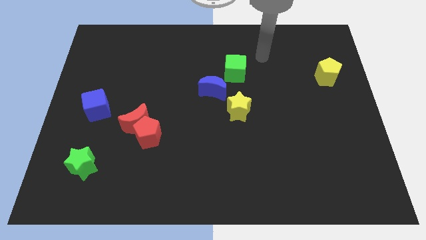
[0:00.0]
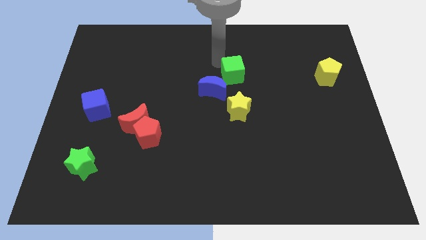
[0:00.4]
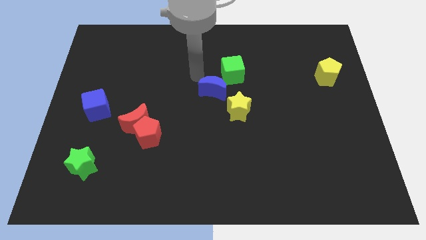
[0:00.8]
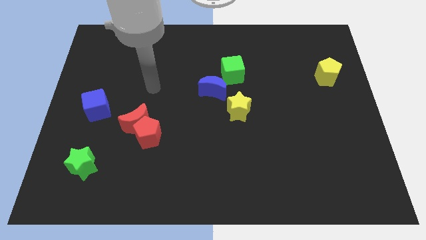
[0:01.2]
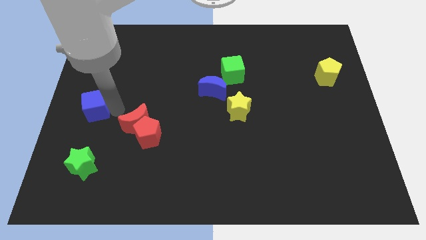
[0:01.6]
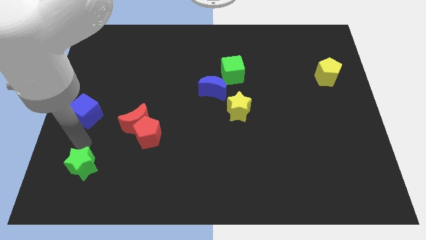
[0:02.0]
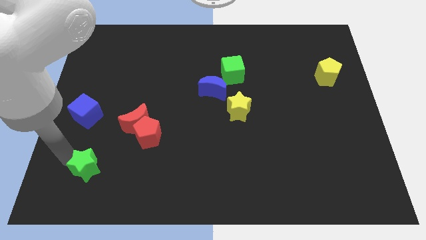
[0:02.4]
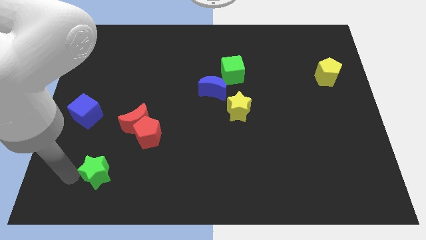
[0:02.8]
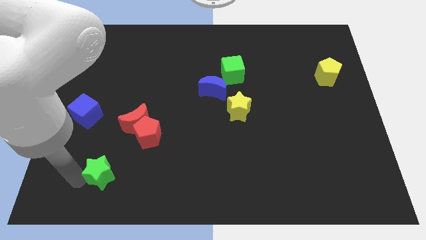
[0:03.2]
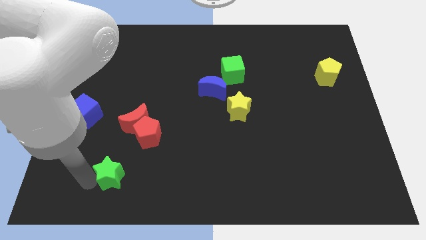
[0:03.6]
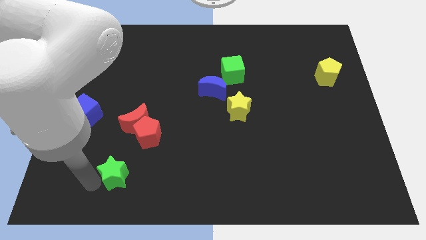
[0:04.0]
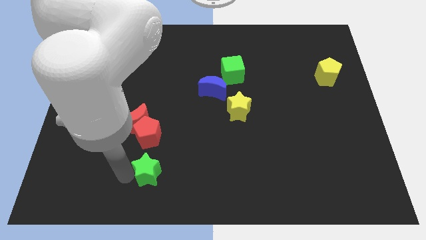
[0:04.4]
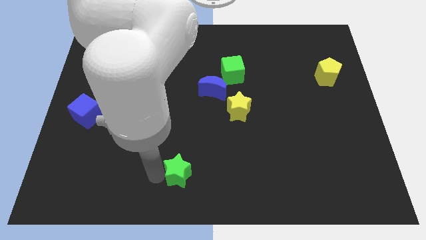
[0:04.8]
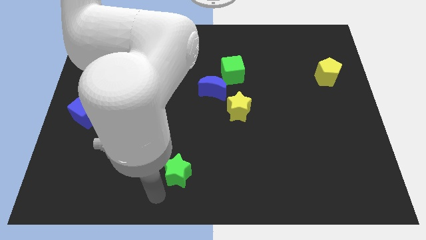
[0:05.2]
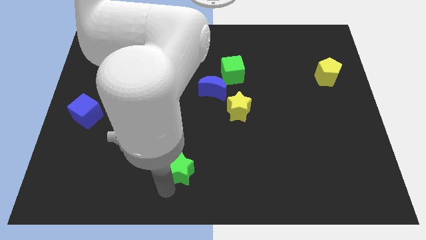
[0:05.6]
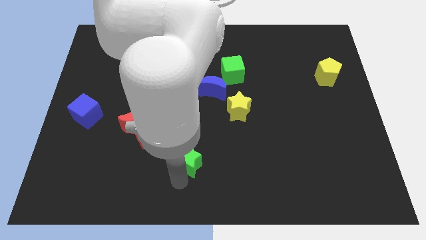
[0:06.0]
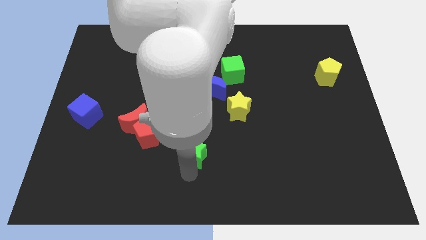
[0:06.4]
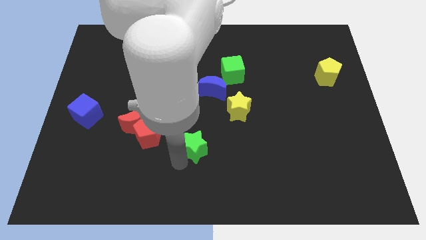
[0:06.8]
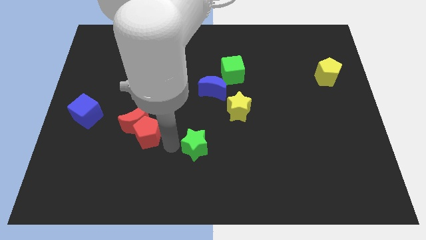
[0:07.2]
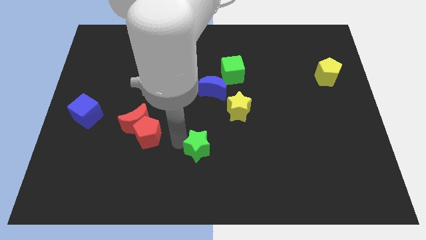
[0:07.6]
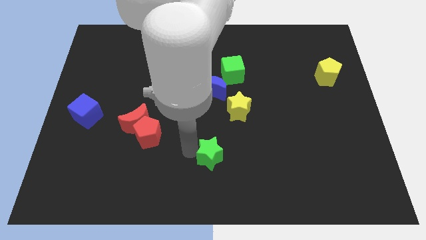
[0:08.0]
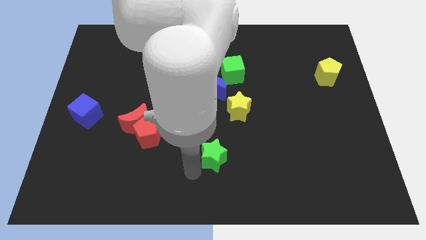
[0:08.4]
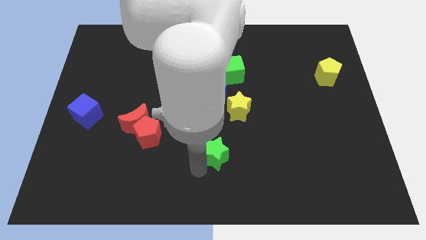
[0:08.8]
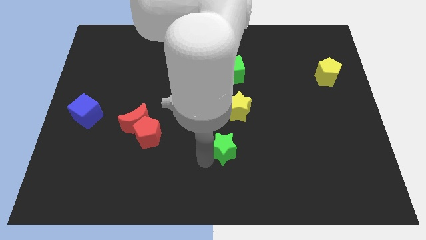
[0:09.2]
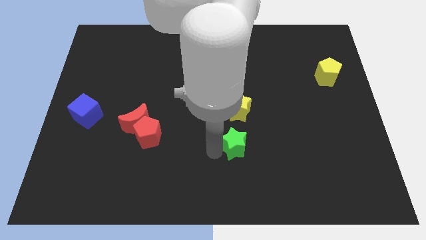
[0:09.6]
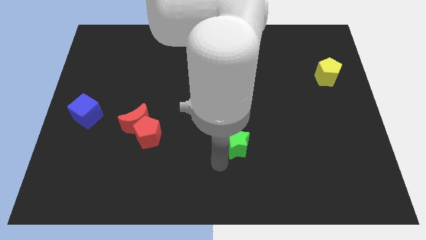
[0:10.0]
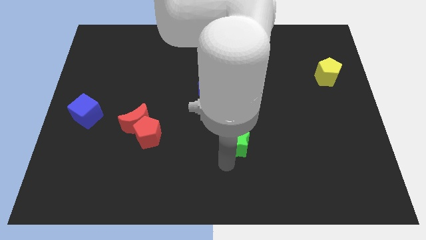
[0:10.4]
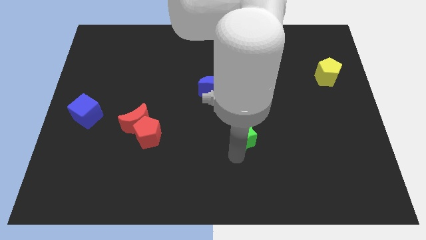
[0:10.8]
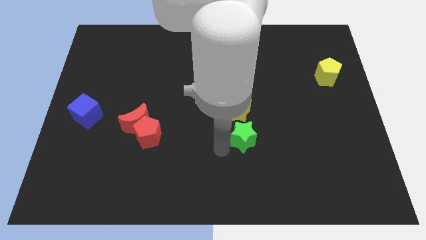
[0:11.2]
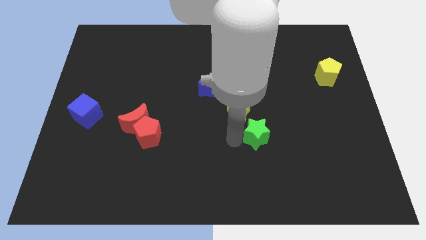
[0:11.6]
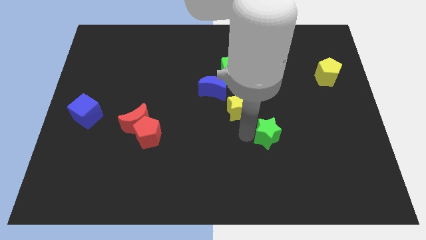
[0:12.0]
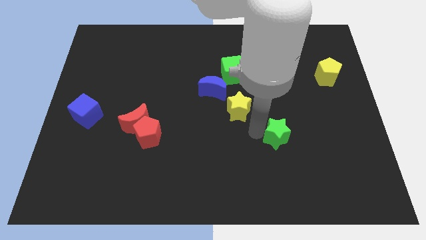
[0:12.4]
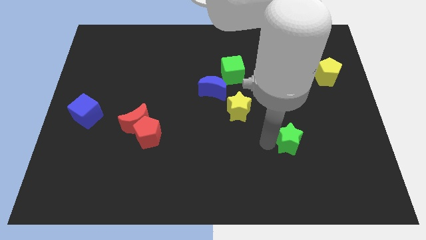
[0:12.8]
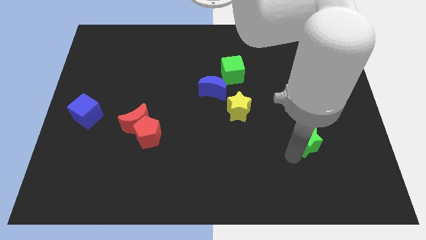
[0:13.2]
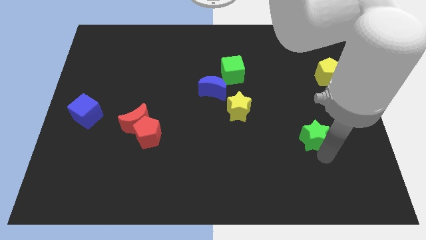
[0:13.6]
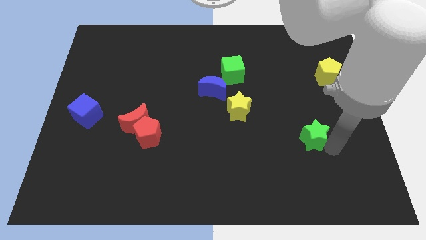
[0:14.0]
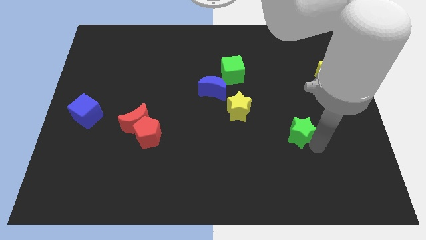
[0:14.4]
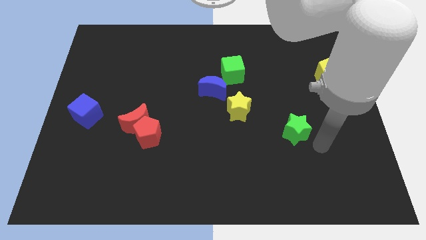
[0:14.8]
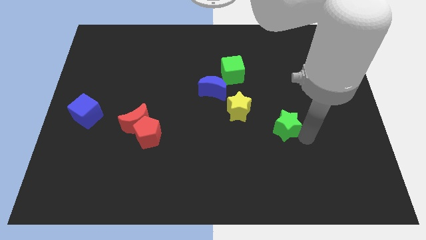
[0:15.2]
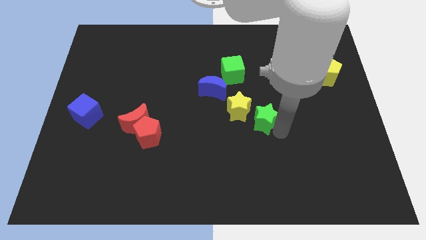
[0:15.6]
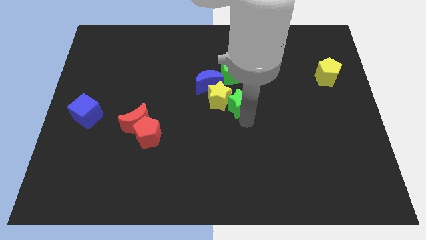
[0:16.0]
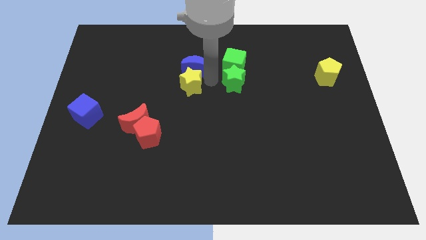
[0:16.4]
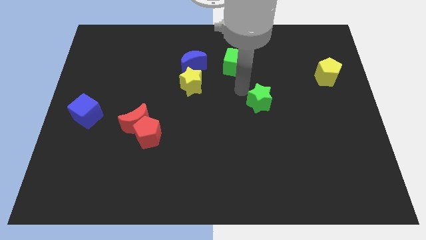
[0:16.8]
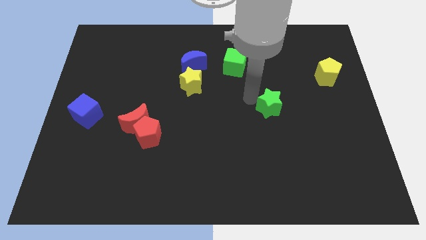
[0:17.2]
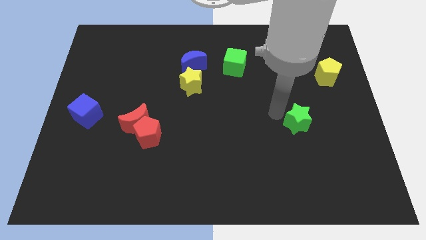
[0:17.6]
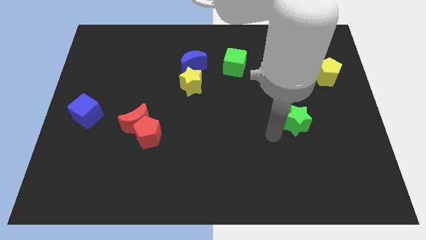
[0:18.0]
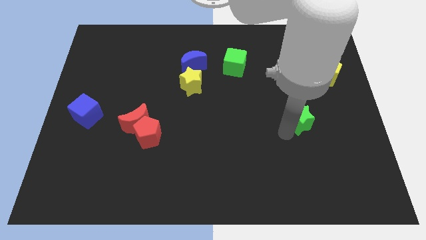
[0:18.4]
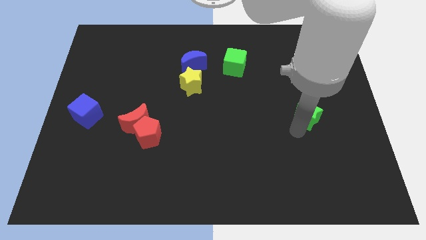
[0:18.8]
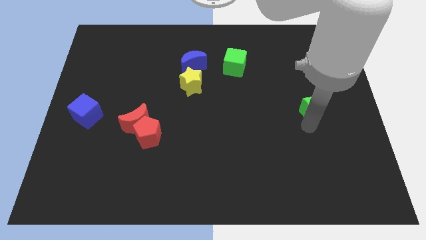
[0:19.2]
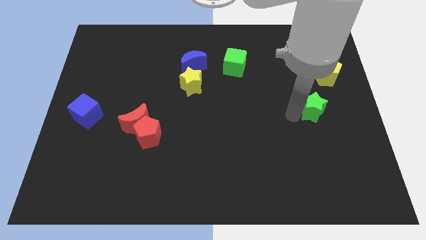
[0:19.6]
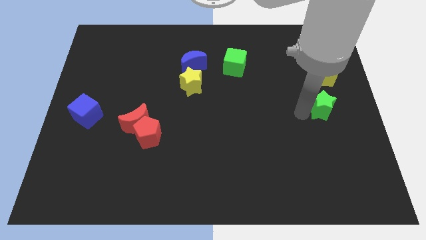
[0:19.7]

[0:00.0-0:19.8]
move the green star to the center right

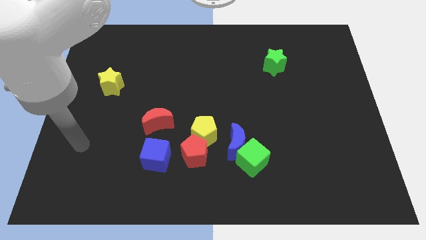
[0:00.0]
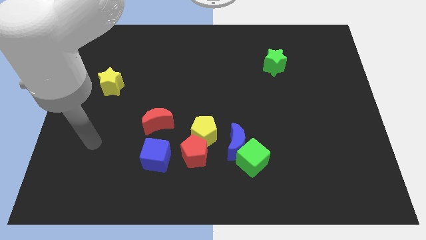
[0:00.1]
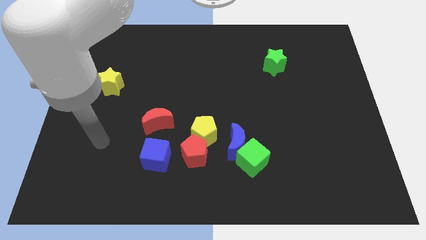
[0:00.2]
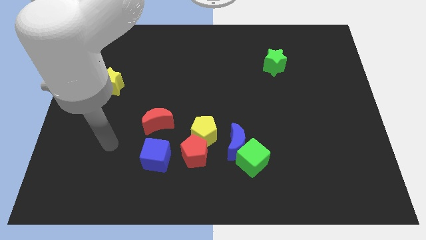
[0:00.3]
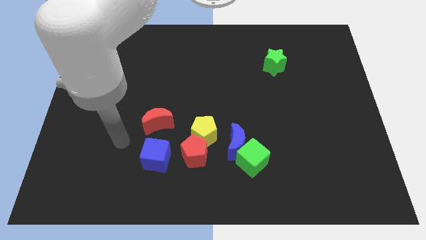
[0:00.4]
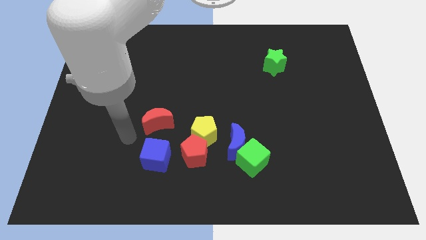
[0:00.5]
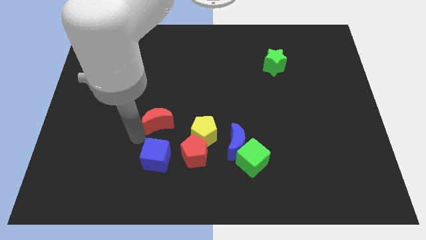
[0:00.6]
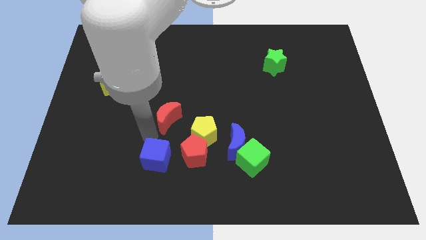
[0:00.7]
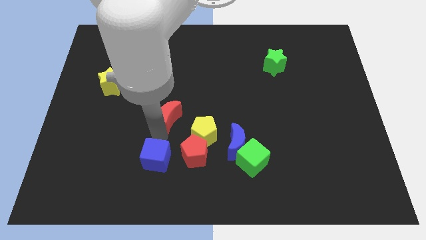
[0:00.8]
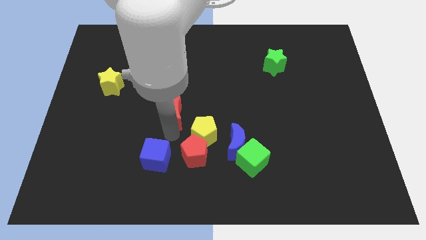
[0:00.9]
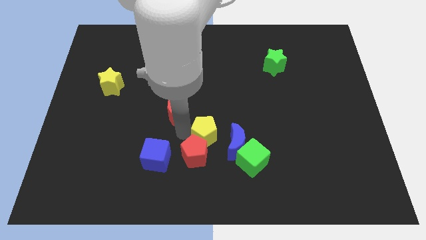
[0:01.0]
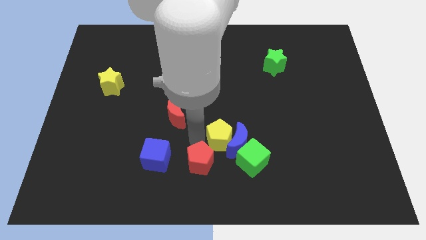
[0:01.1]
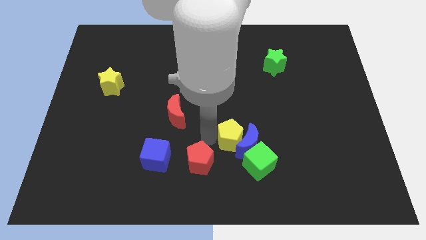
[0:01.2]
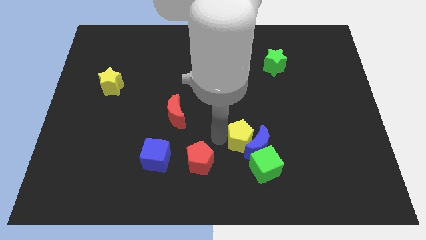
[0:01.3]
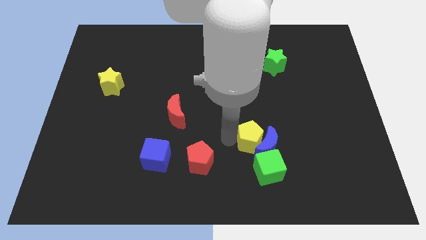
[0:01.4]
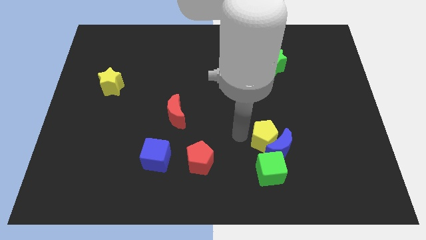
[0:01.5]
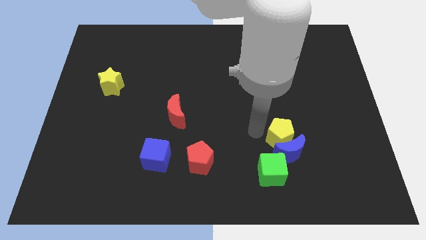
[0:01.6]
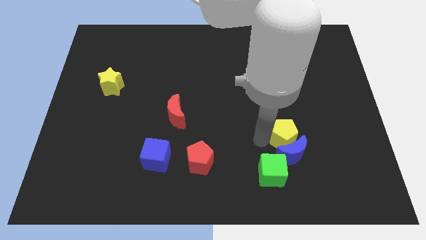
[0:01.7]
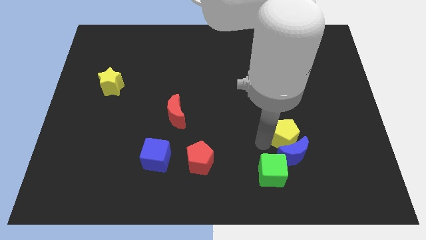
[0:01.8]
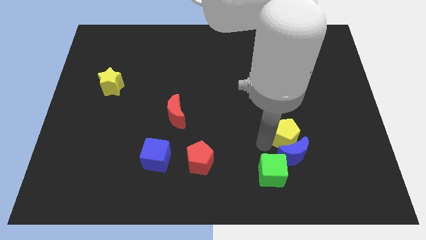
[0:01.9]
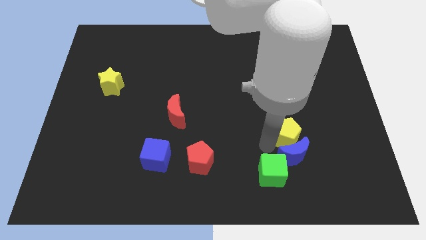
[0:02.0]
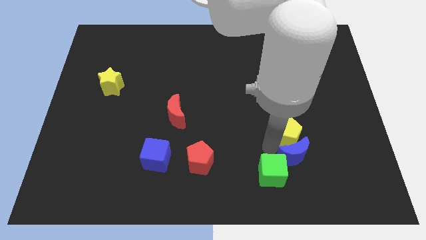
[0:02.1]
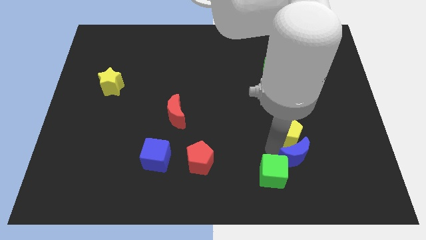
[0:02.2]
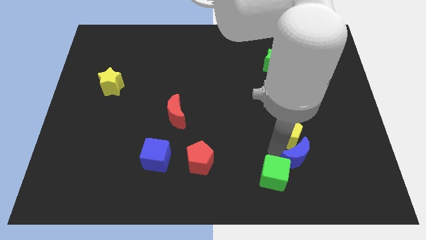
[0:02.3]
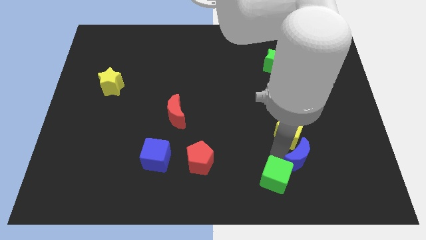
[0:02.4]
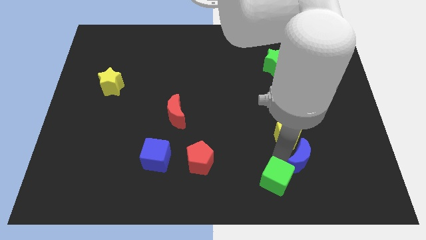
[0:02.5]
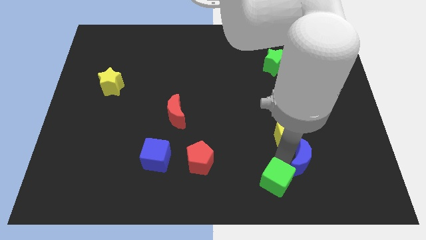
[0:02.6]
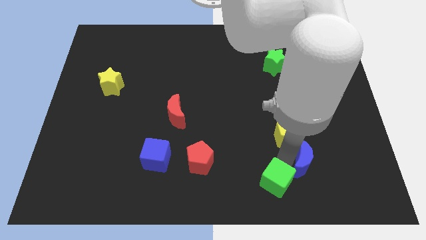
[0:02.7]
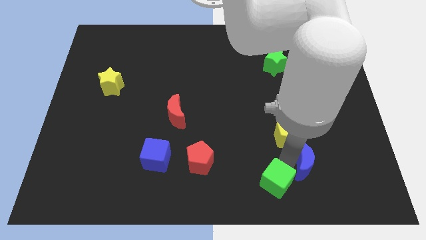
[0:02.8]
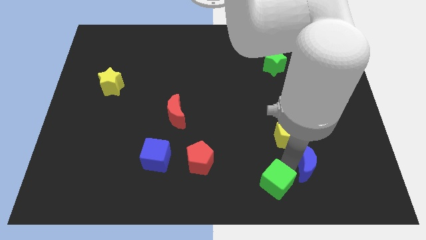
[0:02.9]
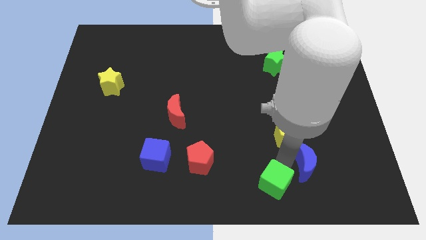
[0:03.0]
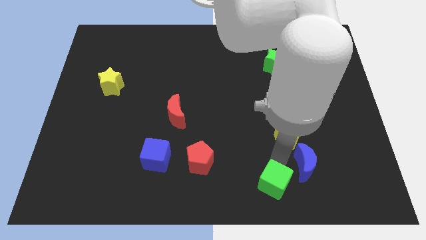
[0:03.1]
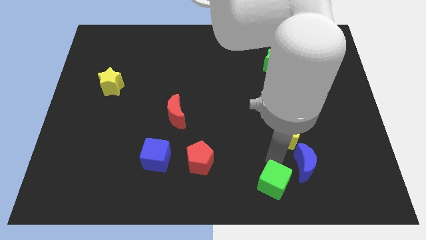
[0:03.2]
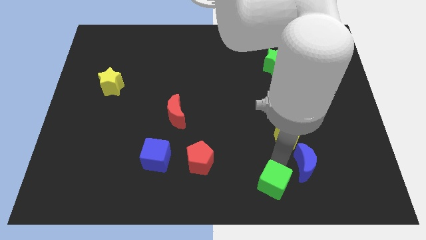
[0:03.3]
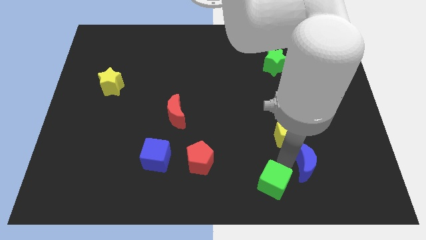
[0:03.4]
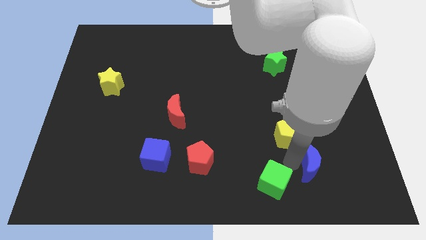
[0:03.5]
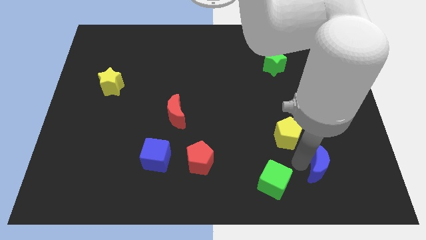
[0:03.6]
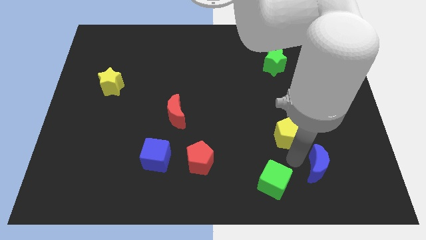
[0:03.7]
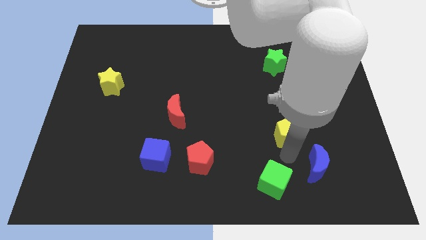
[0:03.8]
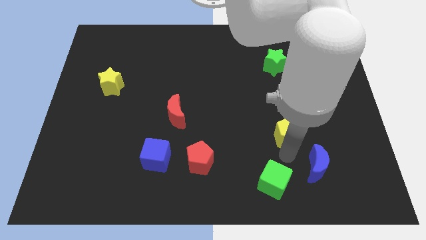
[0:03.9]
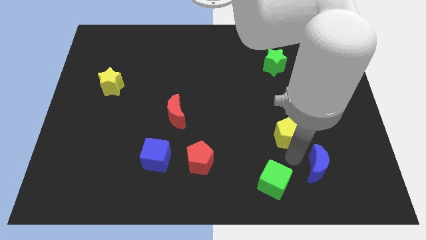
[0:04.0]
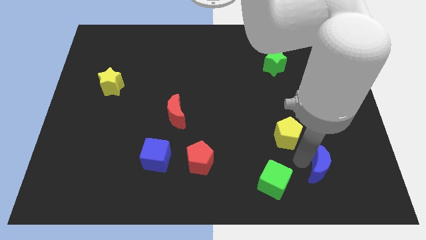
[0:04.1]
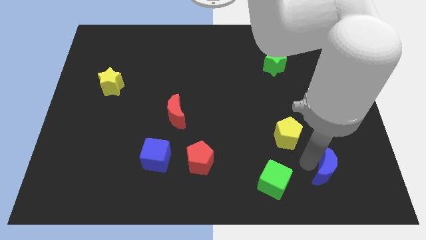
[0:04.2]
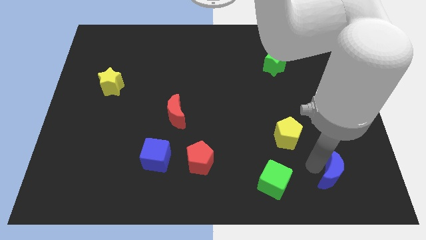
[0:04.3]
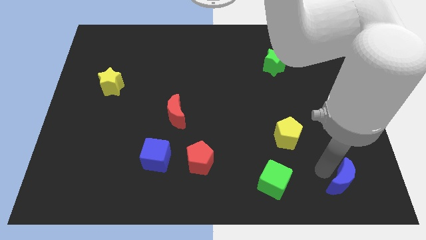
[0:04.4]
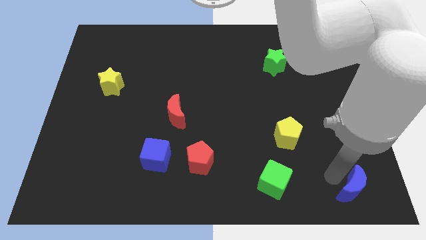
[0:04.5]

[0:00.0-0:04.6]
put the blue moon to the lower right corner
